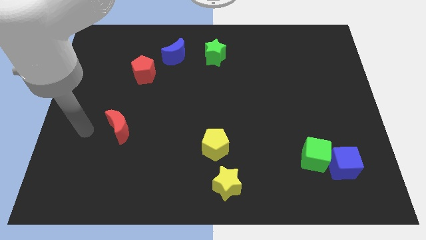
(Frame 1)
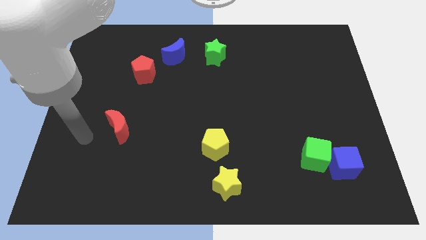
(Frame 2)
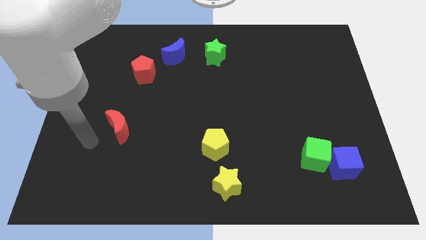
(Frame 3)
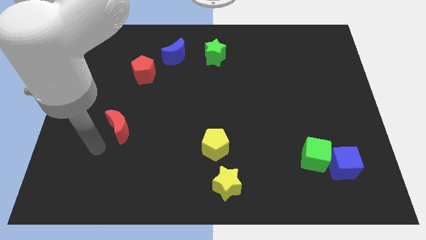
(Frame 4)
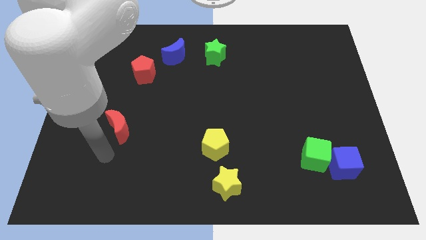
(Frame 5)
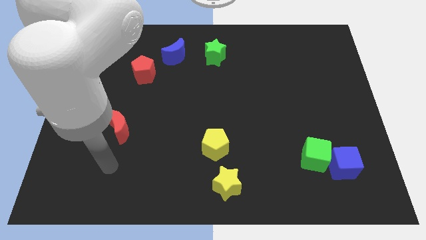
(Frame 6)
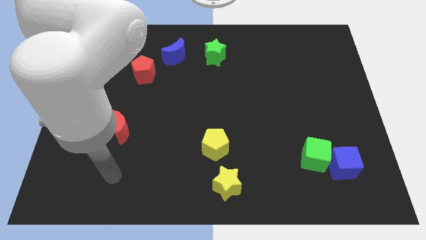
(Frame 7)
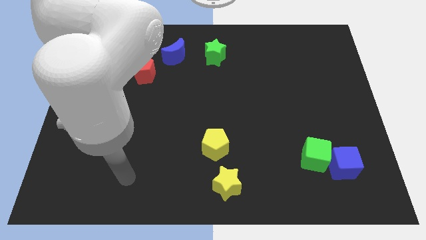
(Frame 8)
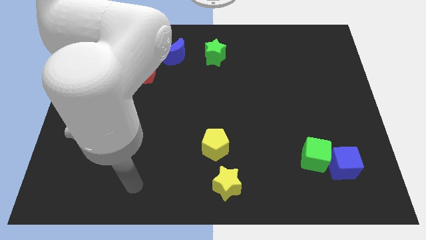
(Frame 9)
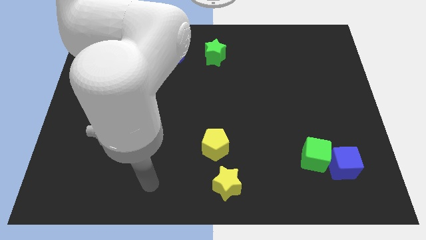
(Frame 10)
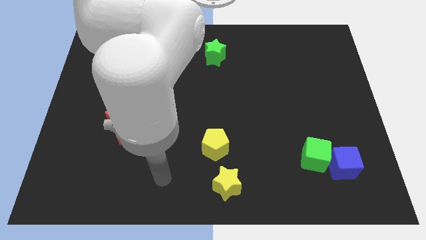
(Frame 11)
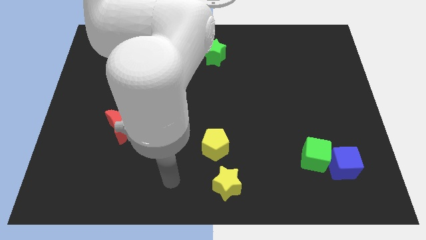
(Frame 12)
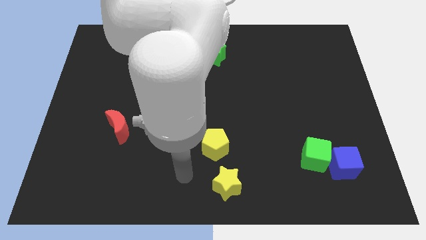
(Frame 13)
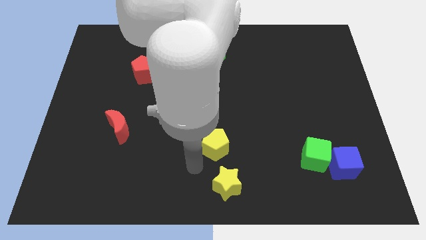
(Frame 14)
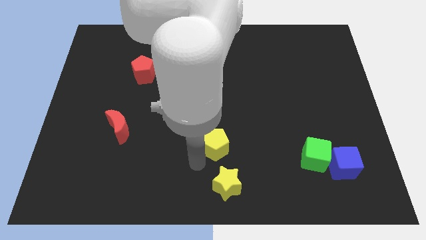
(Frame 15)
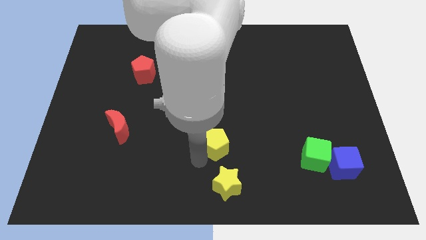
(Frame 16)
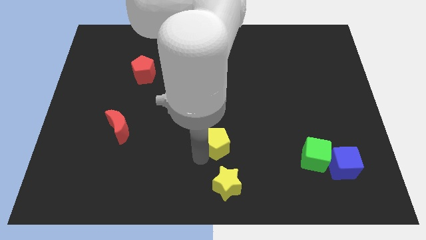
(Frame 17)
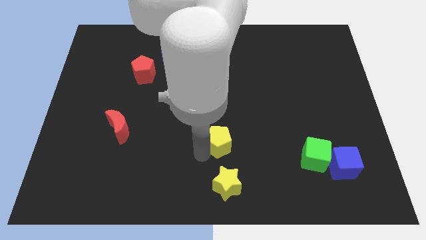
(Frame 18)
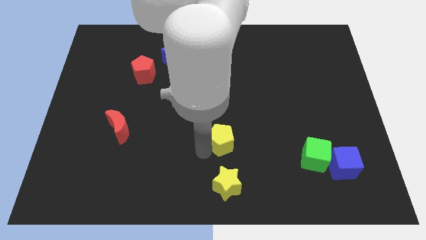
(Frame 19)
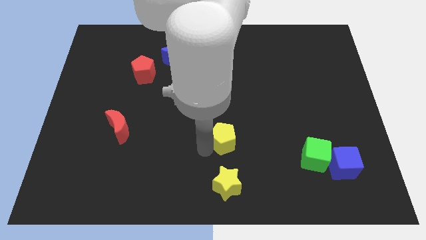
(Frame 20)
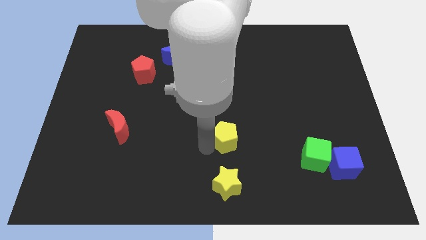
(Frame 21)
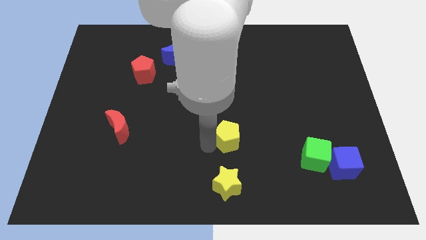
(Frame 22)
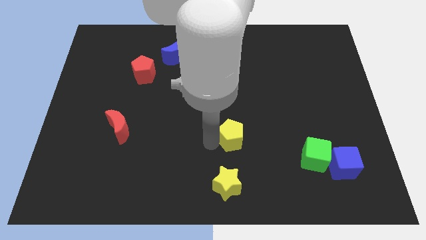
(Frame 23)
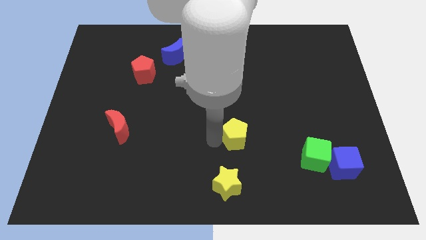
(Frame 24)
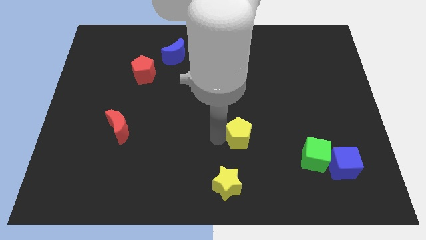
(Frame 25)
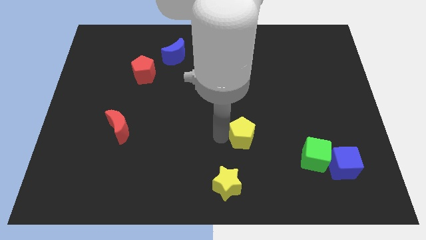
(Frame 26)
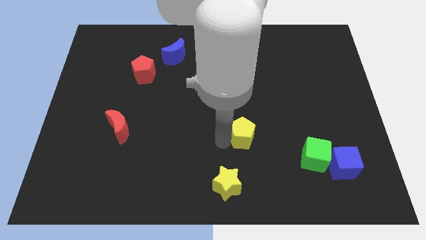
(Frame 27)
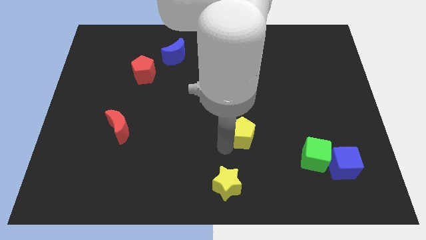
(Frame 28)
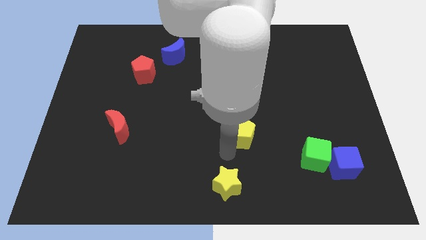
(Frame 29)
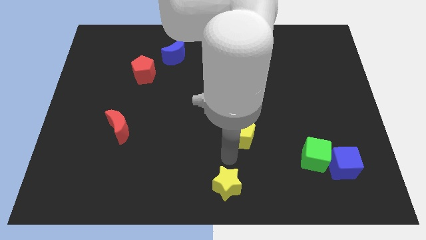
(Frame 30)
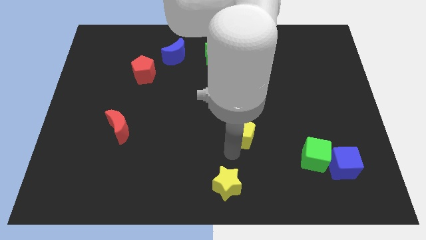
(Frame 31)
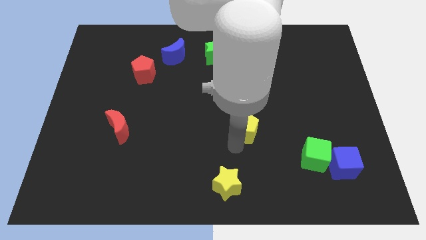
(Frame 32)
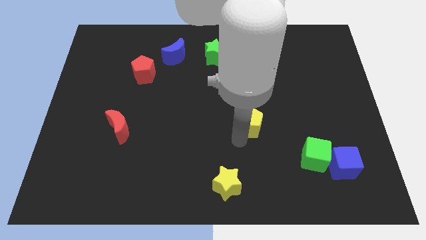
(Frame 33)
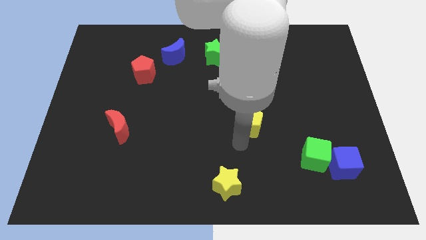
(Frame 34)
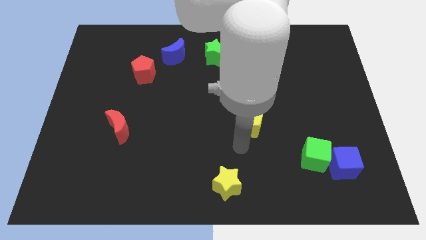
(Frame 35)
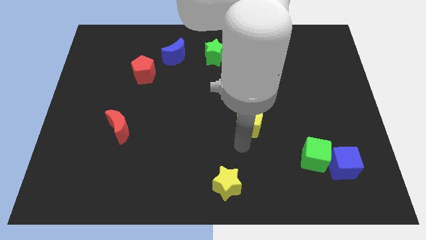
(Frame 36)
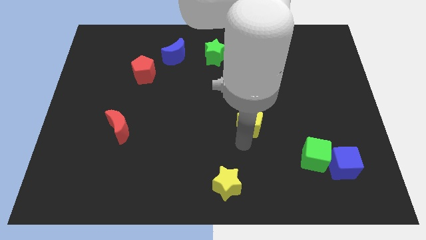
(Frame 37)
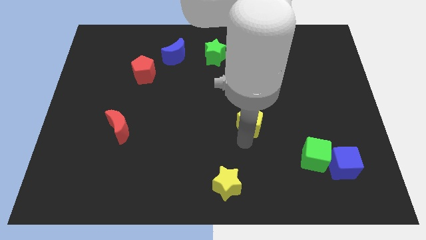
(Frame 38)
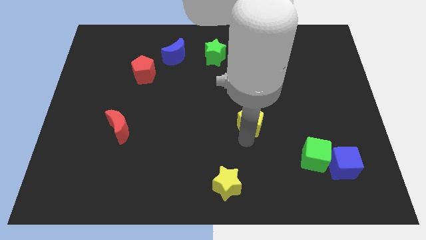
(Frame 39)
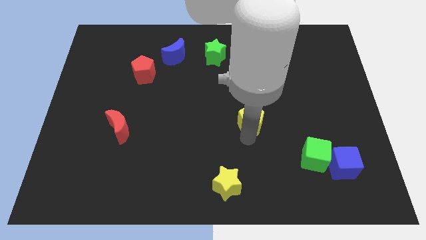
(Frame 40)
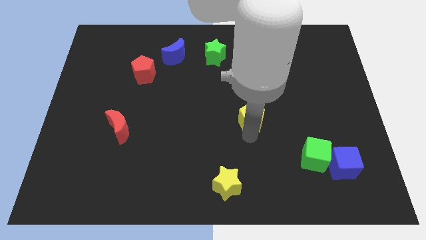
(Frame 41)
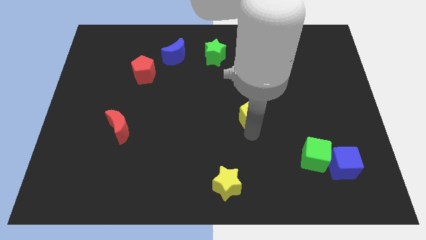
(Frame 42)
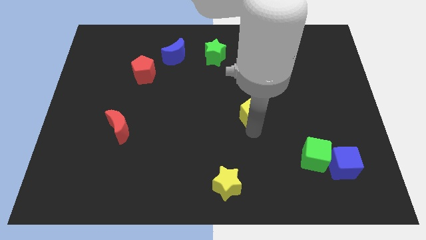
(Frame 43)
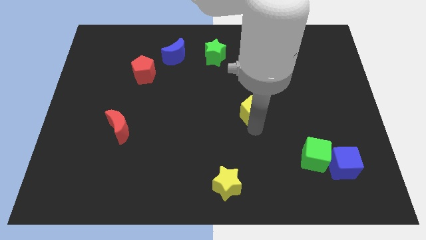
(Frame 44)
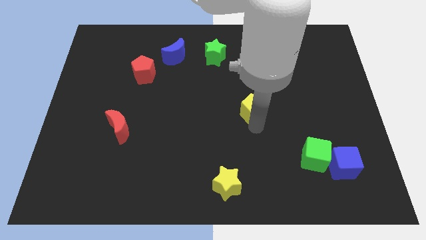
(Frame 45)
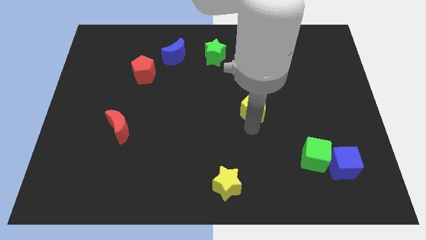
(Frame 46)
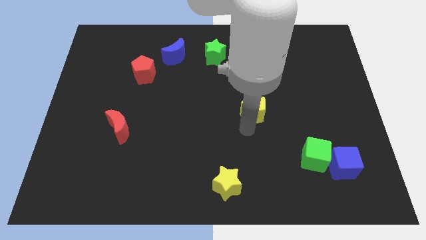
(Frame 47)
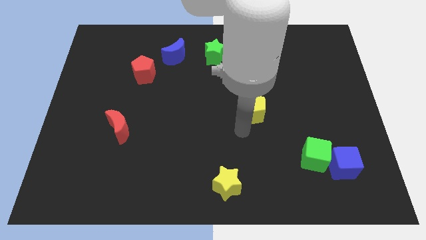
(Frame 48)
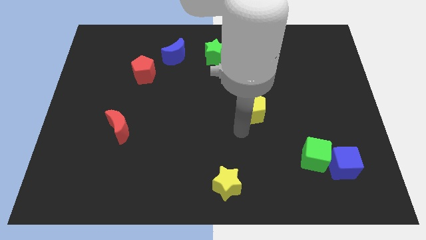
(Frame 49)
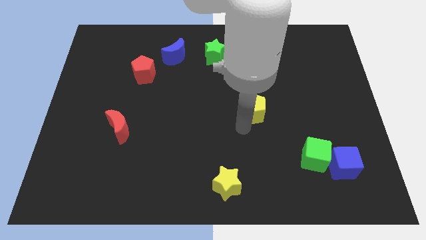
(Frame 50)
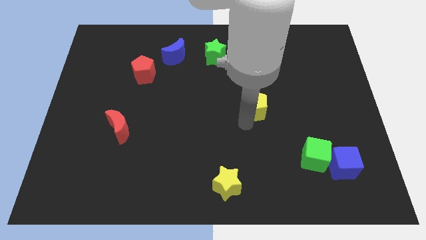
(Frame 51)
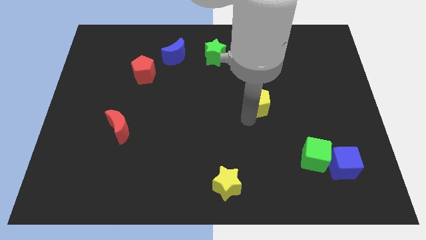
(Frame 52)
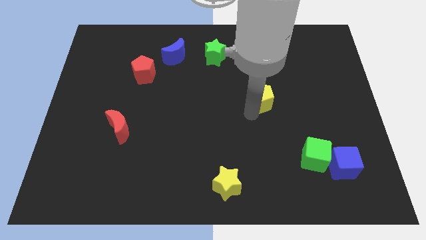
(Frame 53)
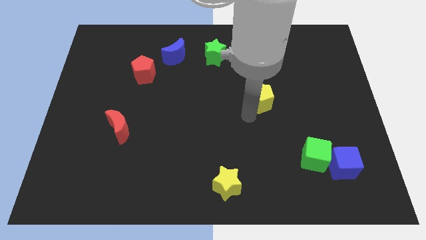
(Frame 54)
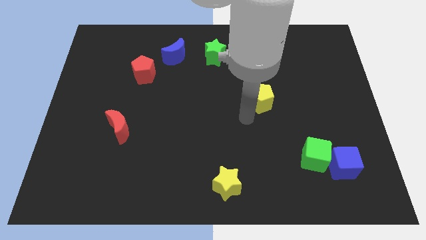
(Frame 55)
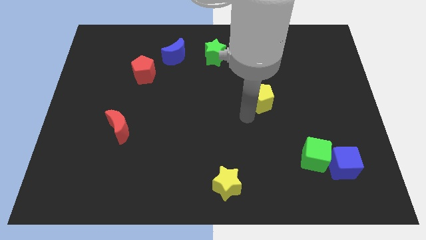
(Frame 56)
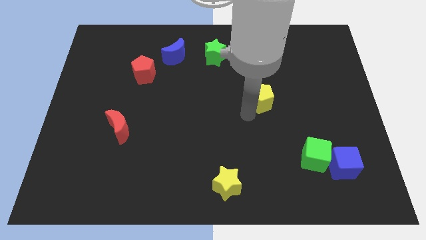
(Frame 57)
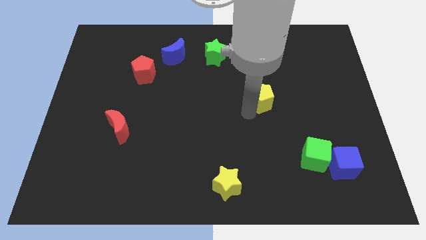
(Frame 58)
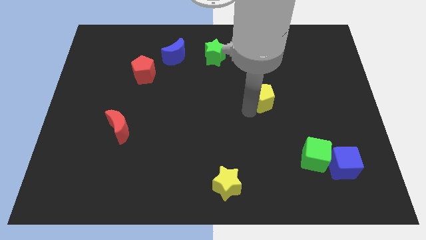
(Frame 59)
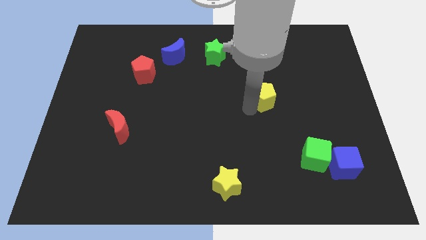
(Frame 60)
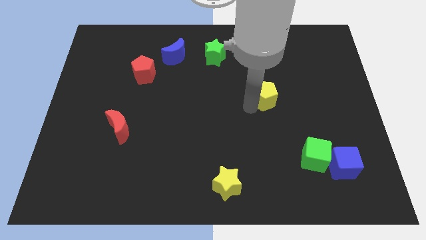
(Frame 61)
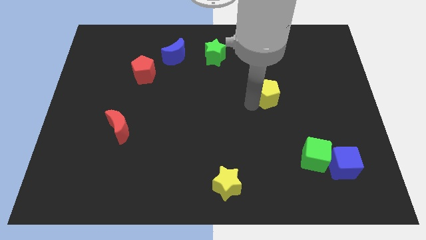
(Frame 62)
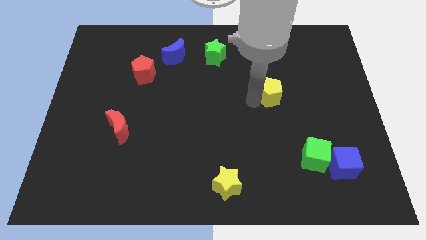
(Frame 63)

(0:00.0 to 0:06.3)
move the yellow pentagon up and to the right diagonally

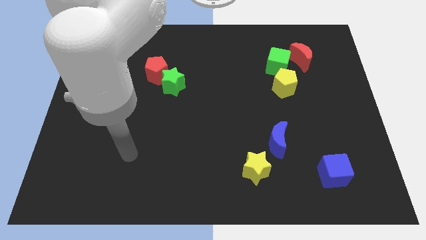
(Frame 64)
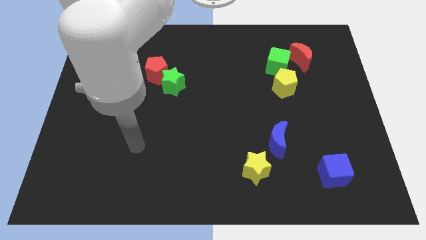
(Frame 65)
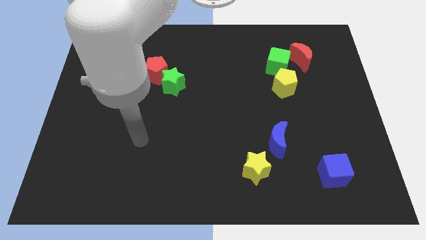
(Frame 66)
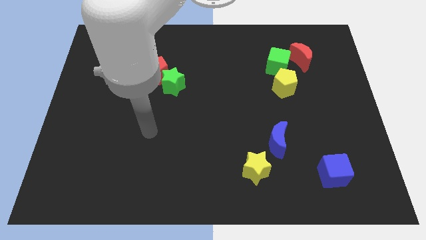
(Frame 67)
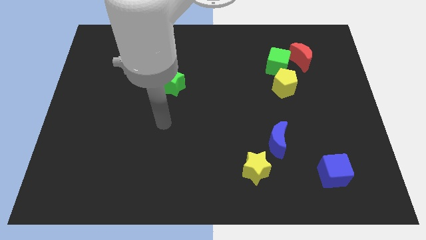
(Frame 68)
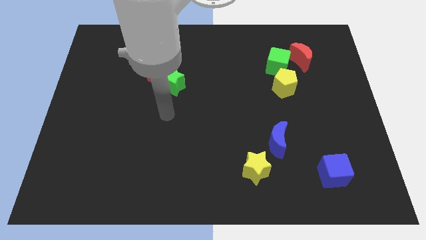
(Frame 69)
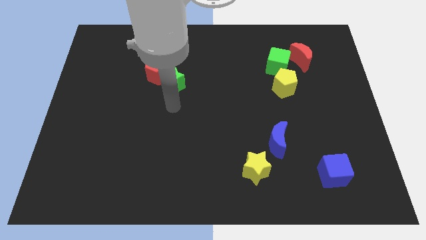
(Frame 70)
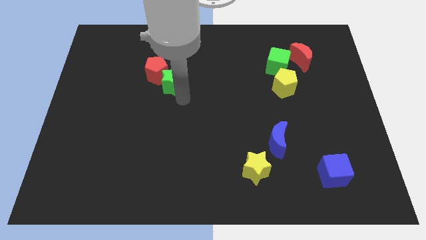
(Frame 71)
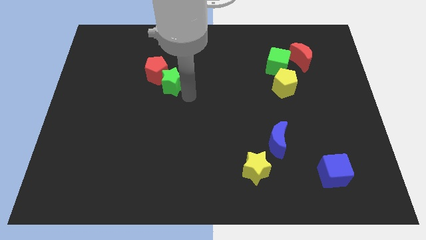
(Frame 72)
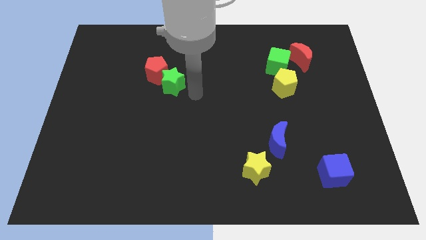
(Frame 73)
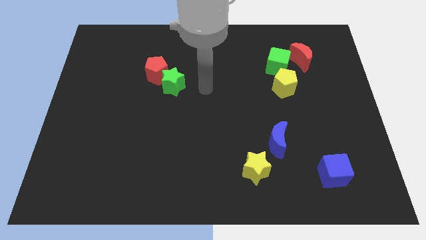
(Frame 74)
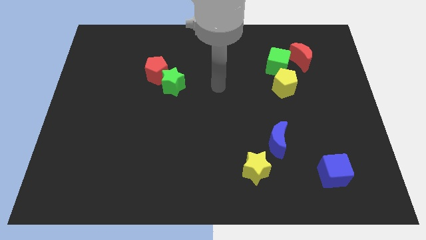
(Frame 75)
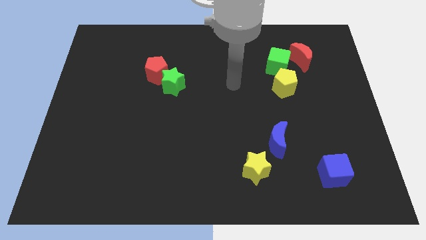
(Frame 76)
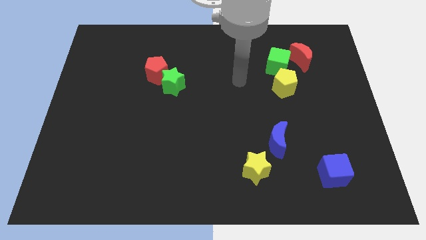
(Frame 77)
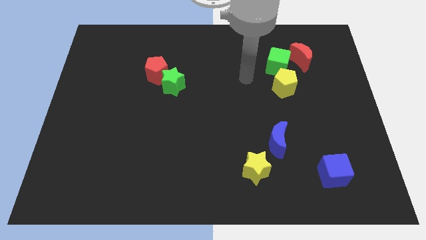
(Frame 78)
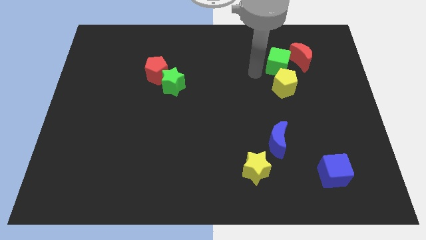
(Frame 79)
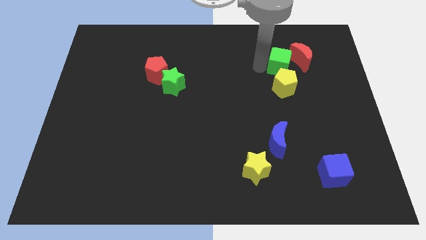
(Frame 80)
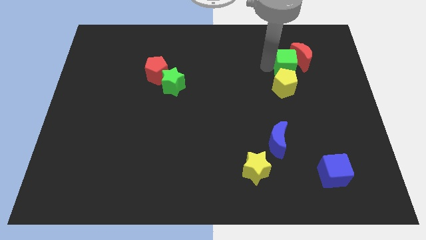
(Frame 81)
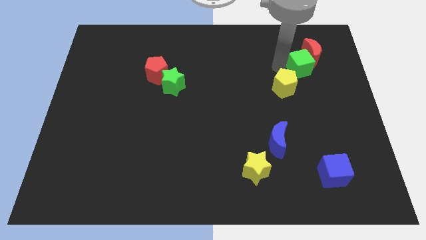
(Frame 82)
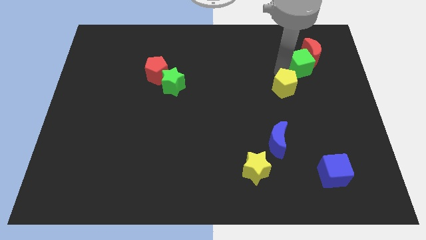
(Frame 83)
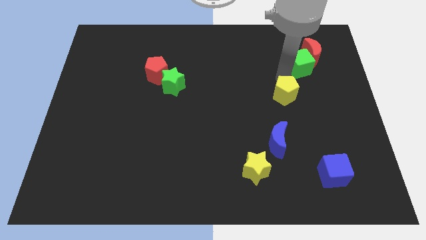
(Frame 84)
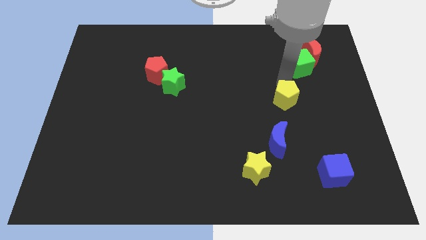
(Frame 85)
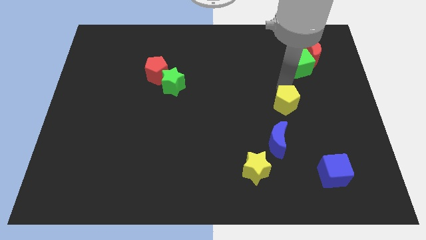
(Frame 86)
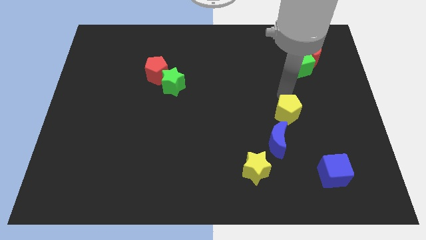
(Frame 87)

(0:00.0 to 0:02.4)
push the yellow pentagon down a little

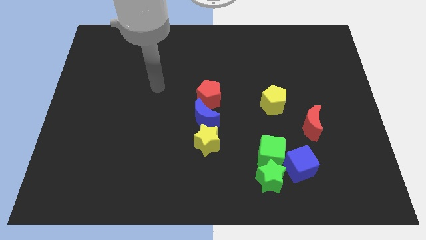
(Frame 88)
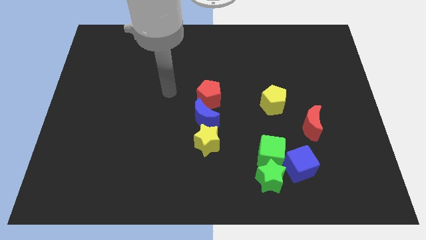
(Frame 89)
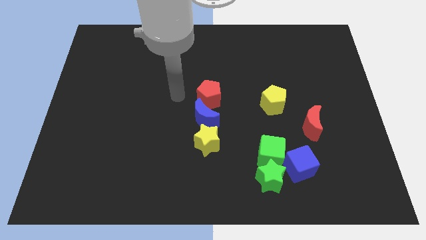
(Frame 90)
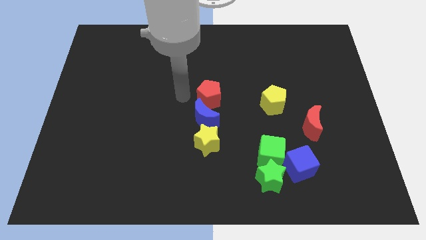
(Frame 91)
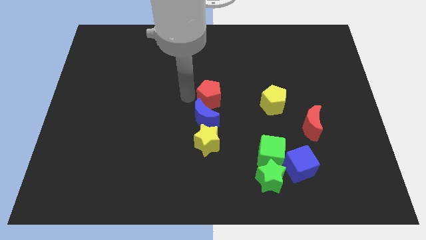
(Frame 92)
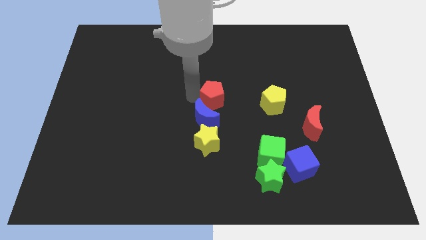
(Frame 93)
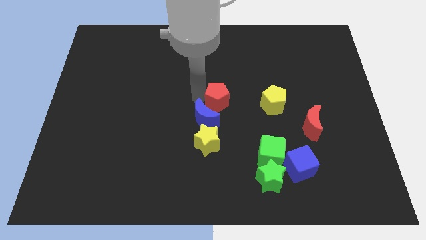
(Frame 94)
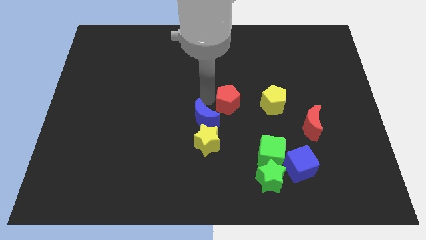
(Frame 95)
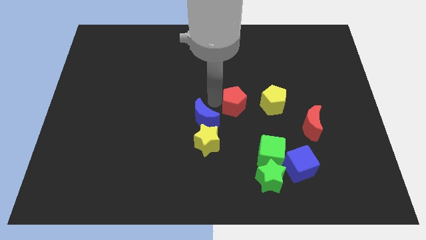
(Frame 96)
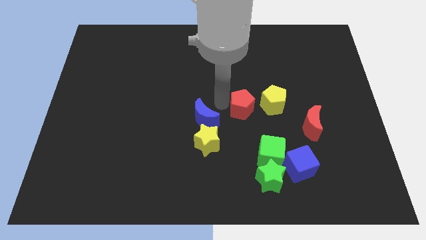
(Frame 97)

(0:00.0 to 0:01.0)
move the red pentagon a bit to the right
